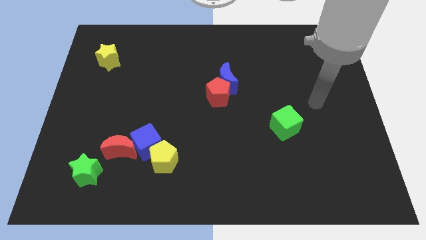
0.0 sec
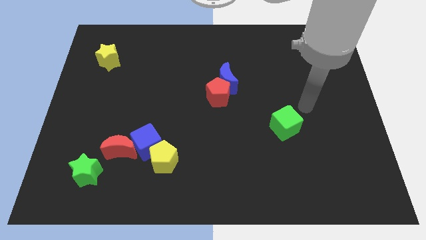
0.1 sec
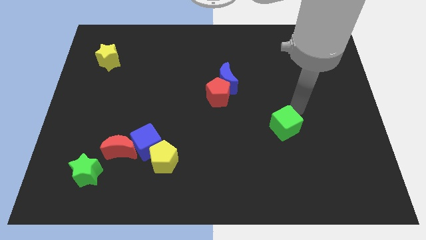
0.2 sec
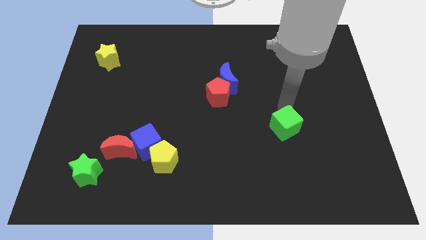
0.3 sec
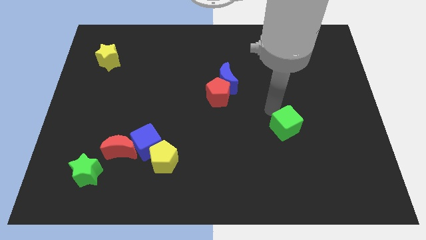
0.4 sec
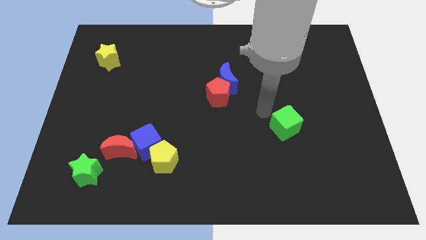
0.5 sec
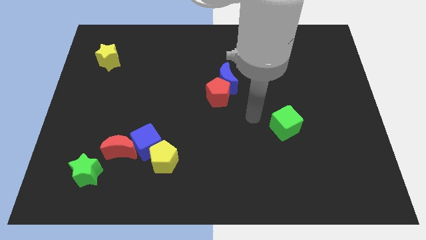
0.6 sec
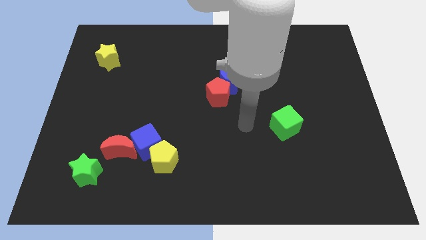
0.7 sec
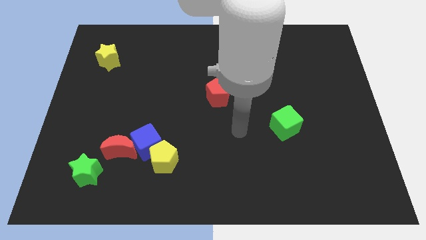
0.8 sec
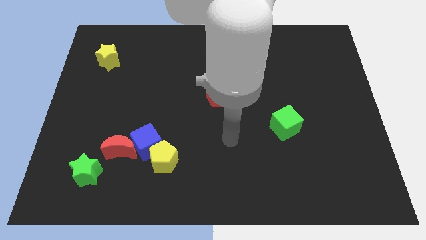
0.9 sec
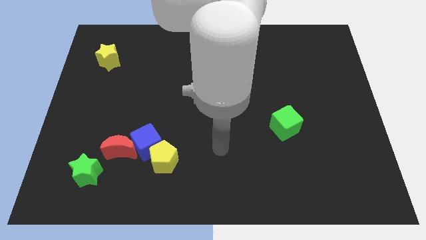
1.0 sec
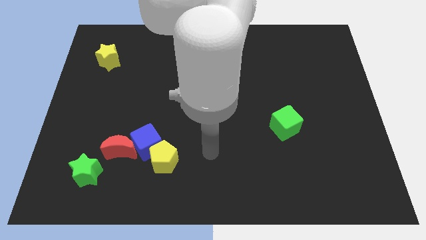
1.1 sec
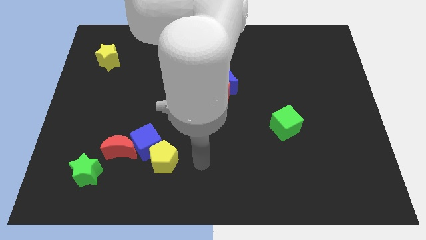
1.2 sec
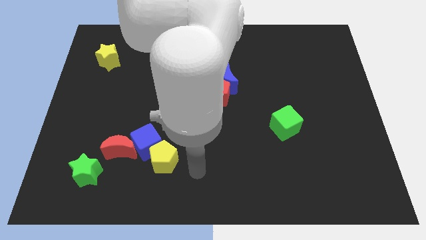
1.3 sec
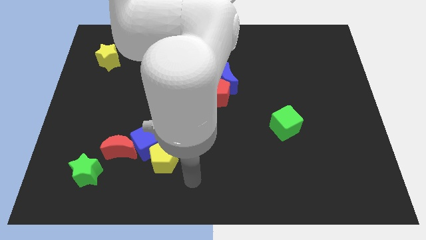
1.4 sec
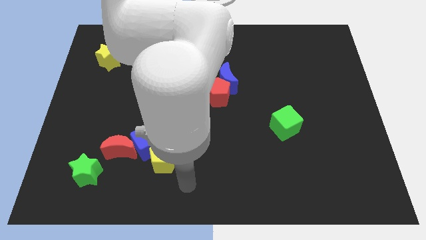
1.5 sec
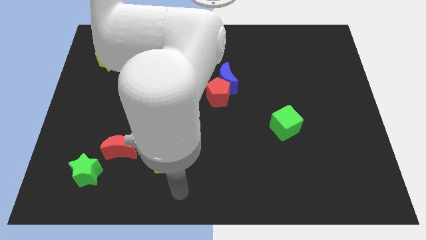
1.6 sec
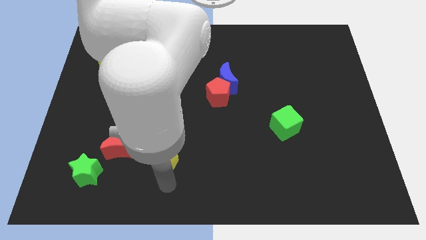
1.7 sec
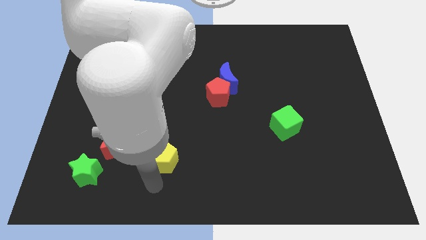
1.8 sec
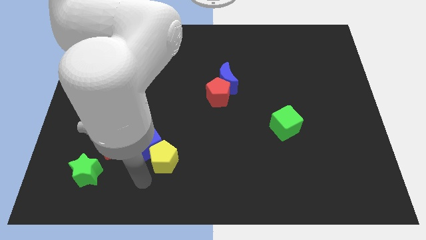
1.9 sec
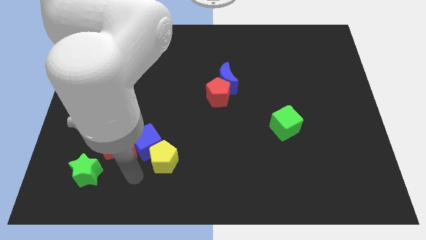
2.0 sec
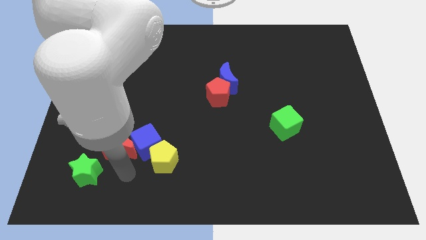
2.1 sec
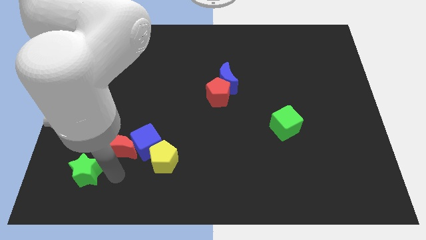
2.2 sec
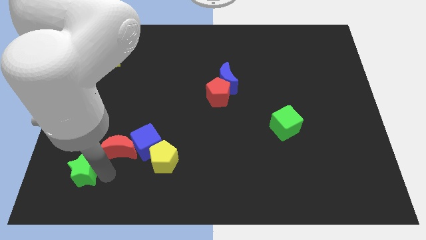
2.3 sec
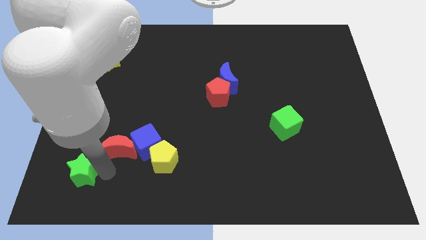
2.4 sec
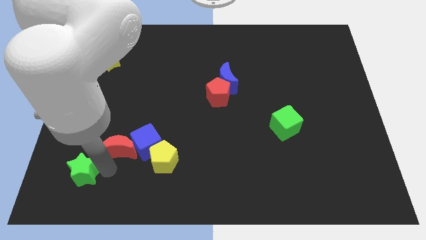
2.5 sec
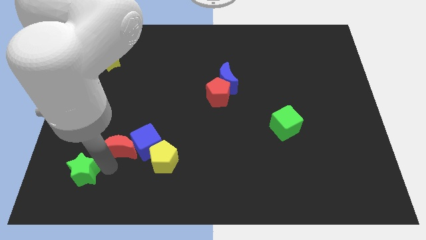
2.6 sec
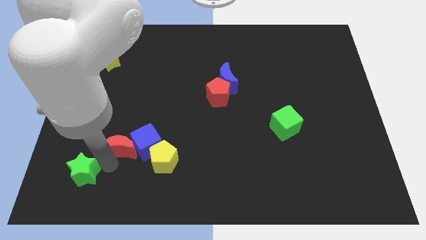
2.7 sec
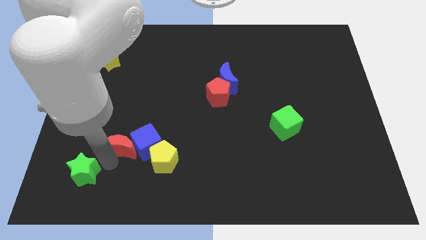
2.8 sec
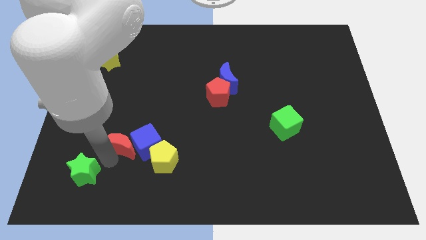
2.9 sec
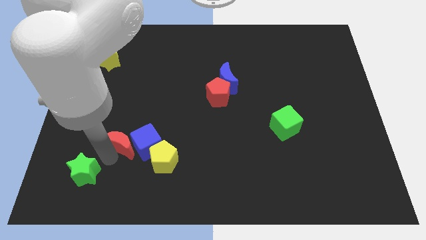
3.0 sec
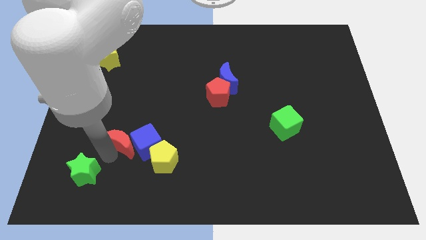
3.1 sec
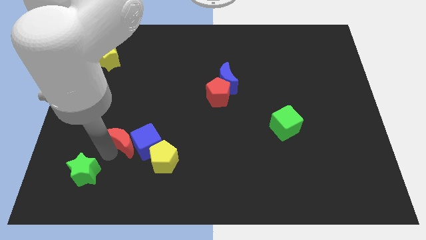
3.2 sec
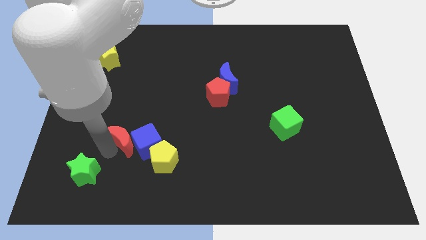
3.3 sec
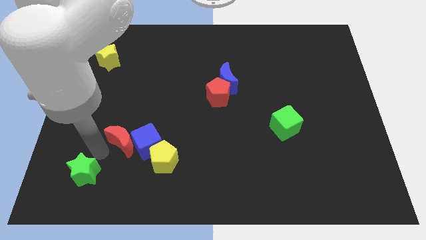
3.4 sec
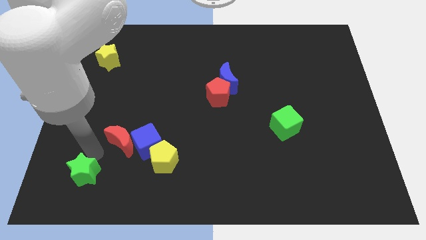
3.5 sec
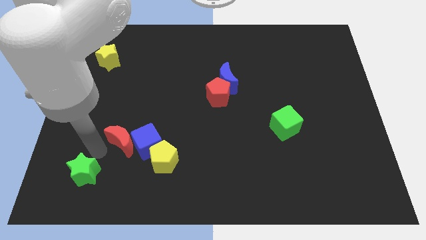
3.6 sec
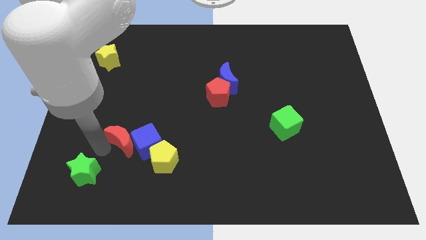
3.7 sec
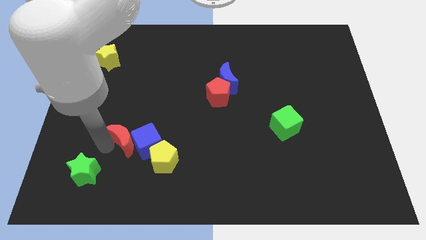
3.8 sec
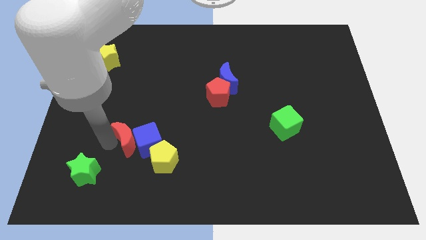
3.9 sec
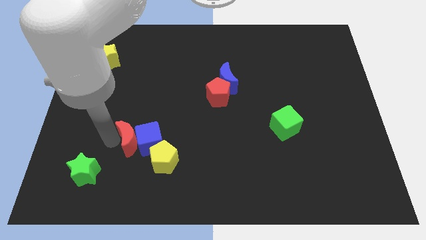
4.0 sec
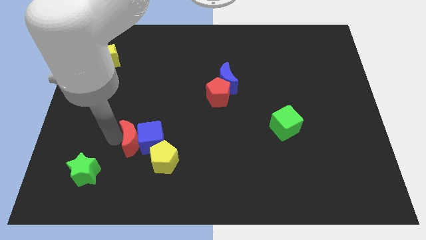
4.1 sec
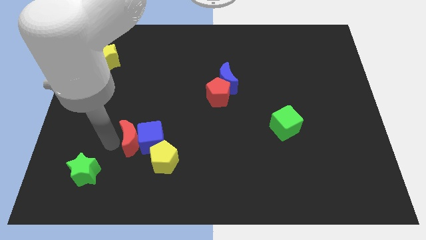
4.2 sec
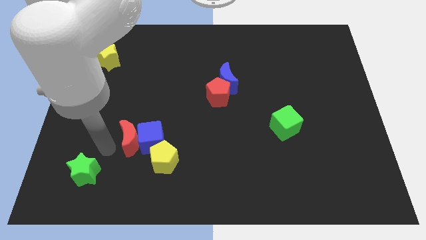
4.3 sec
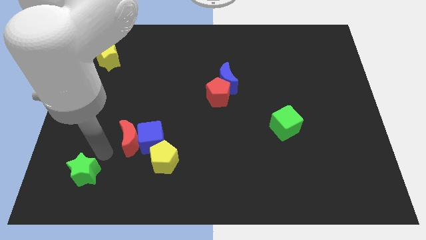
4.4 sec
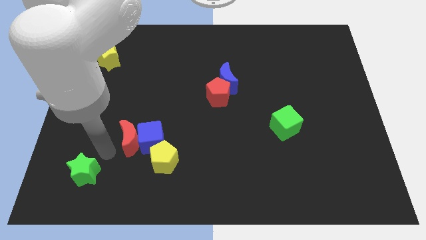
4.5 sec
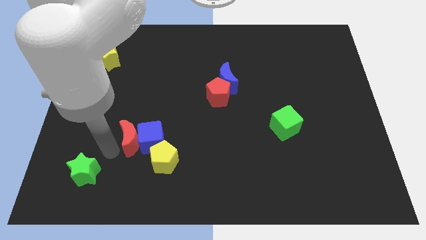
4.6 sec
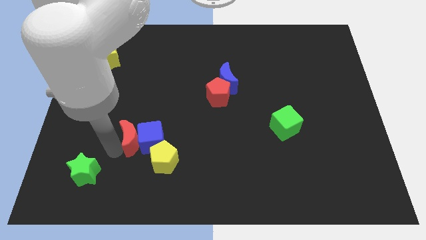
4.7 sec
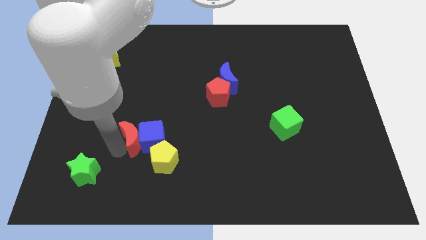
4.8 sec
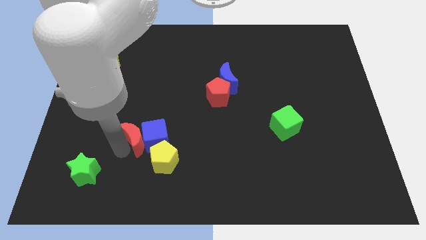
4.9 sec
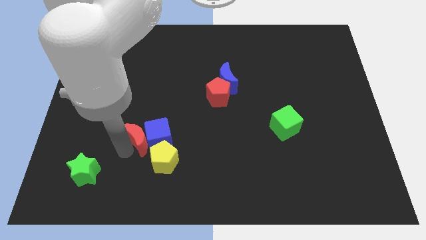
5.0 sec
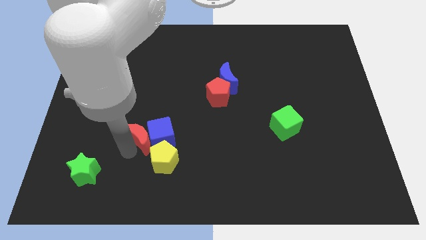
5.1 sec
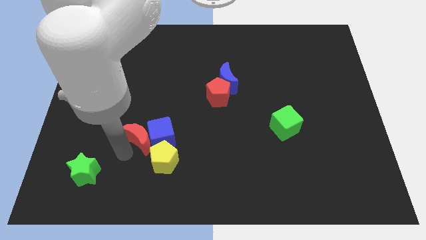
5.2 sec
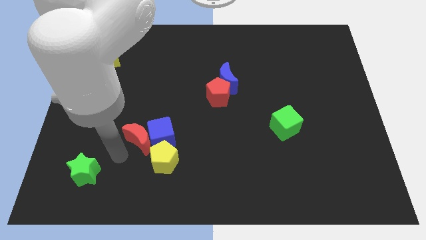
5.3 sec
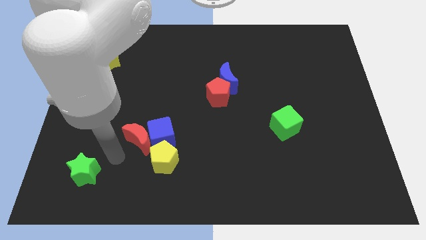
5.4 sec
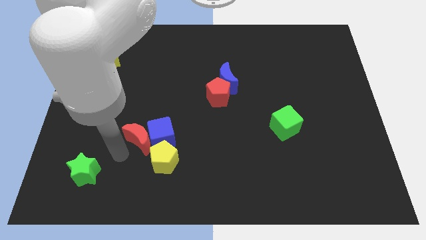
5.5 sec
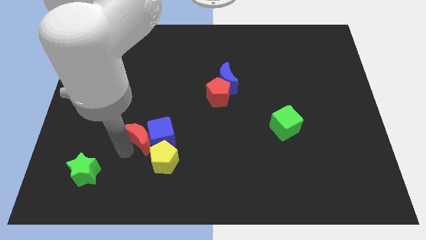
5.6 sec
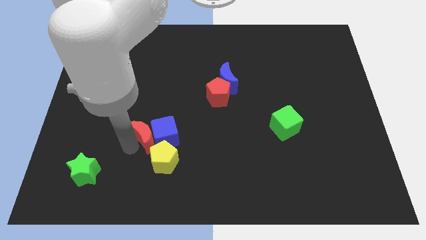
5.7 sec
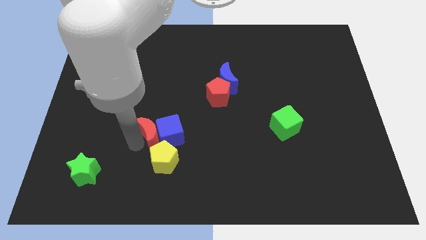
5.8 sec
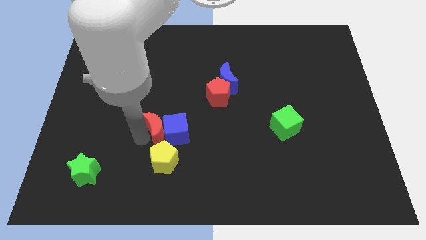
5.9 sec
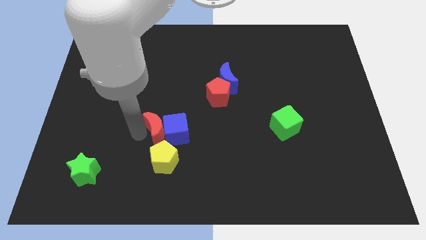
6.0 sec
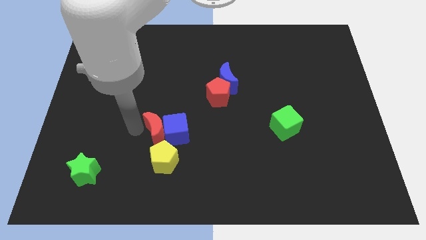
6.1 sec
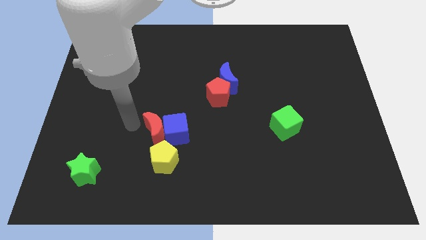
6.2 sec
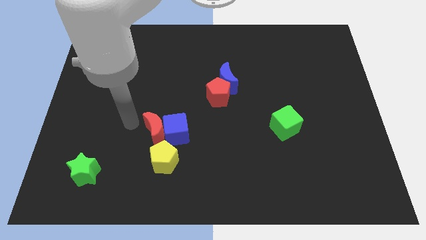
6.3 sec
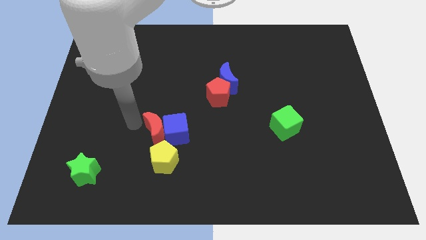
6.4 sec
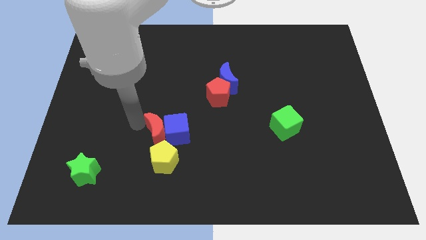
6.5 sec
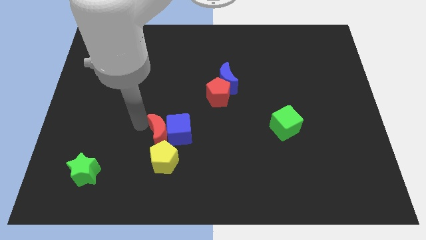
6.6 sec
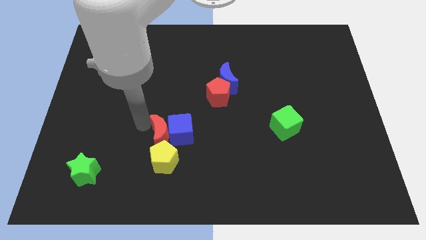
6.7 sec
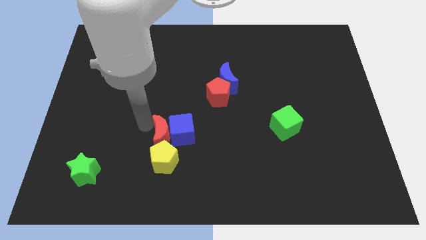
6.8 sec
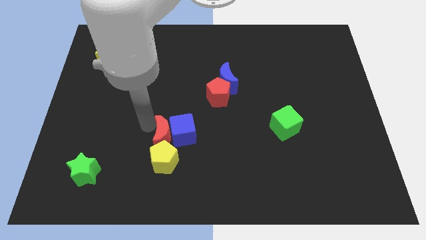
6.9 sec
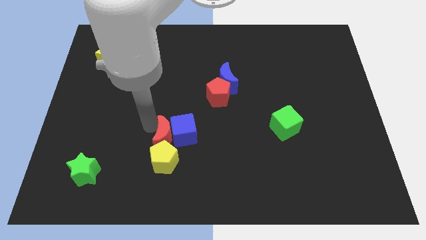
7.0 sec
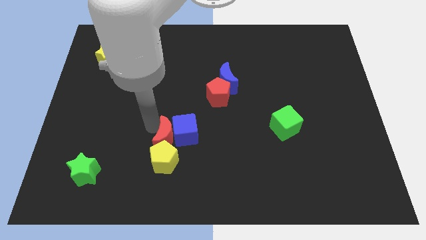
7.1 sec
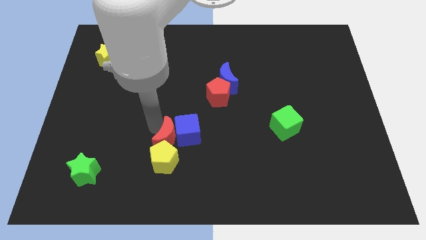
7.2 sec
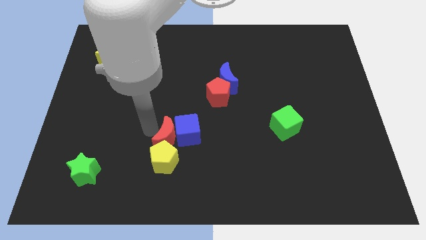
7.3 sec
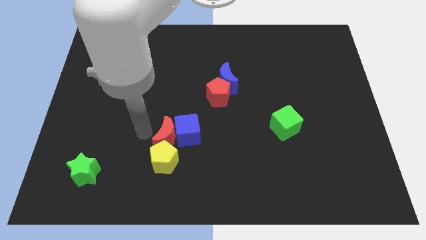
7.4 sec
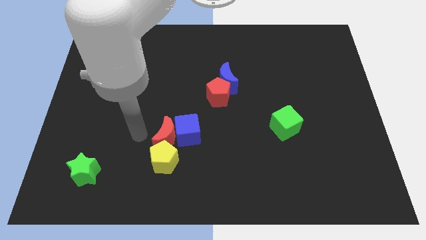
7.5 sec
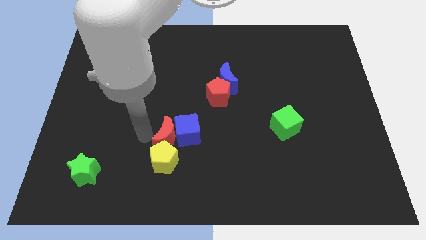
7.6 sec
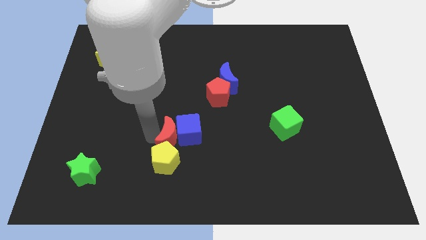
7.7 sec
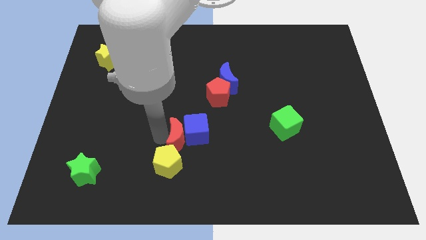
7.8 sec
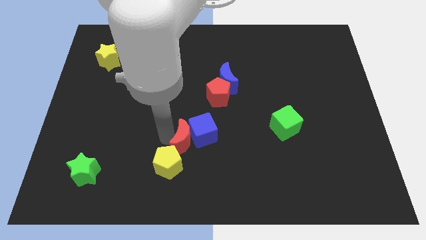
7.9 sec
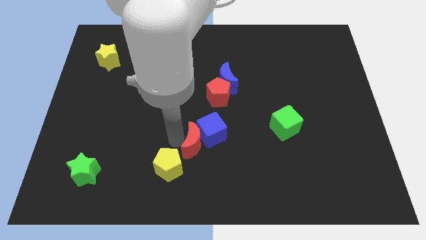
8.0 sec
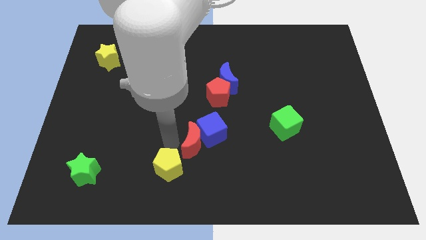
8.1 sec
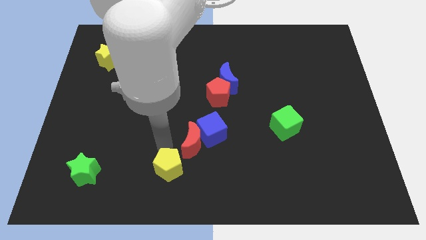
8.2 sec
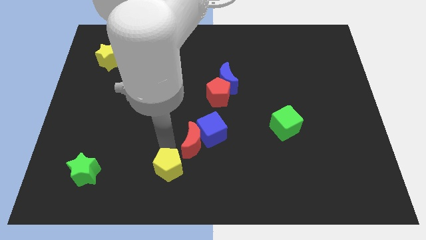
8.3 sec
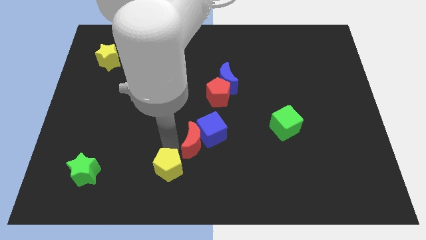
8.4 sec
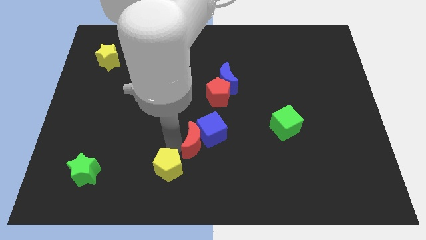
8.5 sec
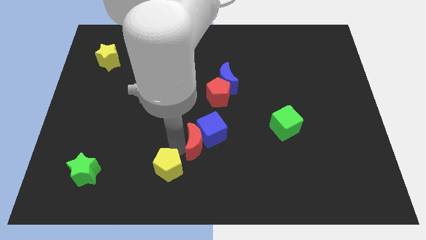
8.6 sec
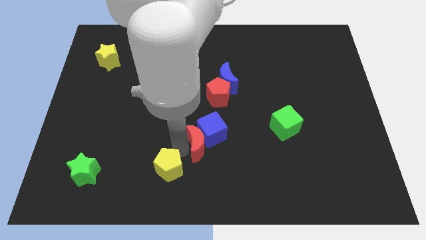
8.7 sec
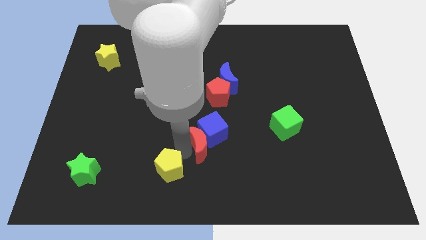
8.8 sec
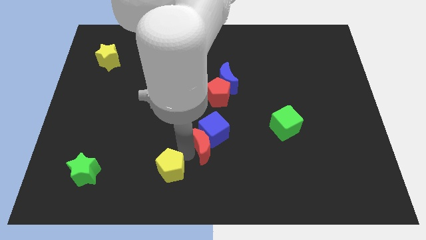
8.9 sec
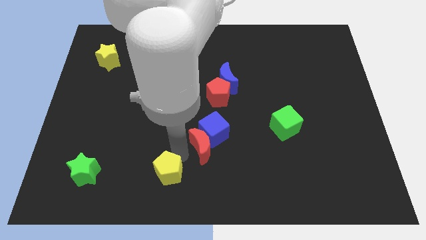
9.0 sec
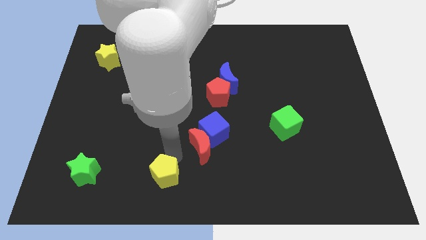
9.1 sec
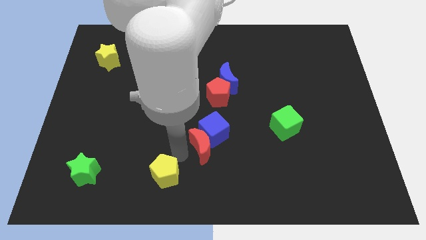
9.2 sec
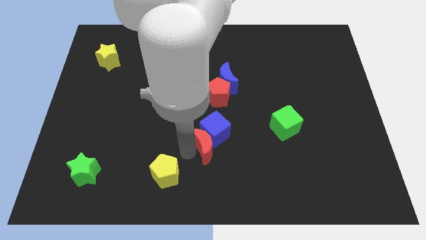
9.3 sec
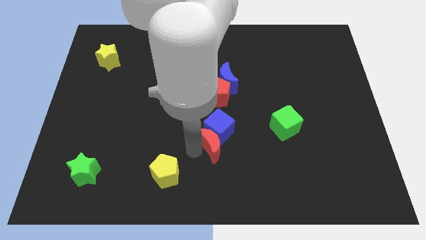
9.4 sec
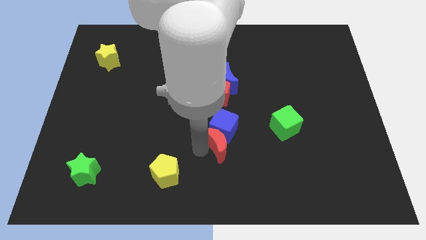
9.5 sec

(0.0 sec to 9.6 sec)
slide the red moon right
